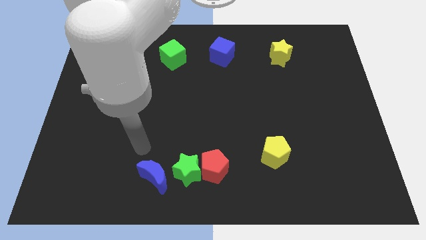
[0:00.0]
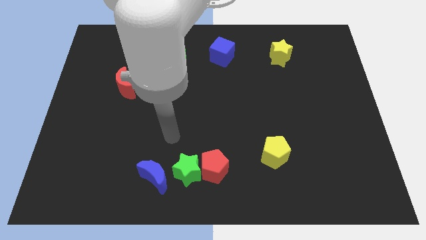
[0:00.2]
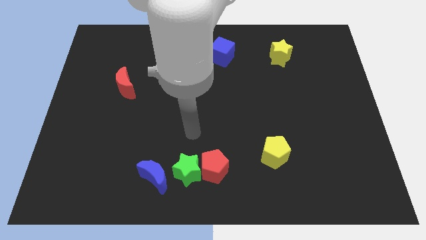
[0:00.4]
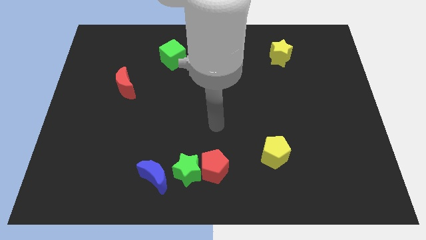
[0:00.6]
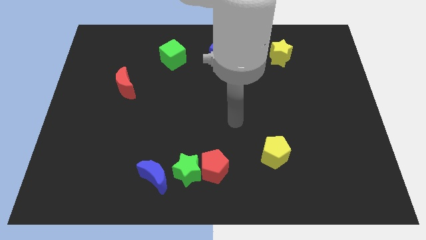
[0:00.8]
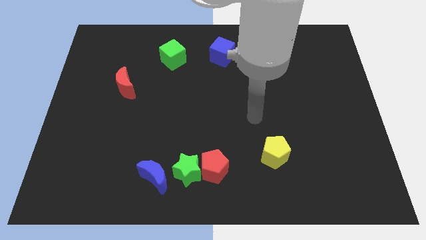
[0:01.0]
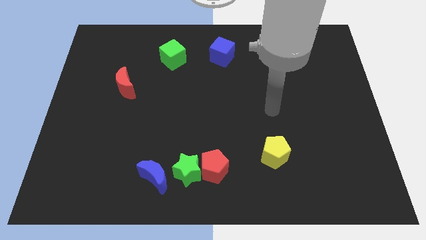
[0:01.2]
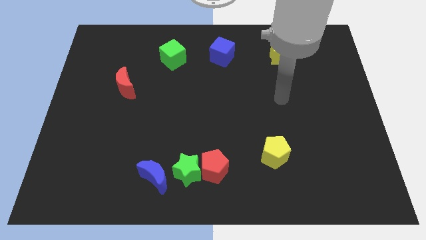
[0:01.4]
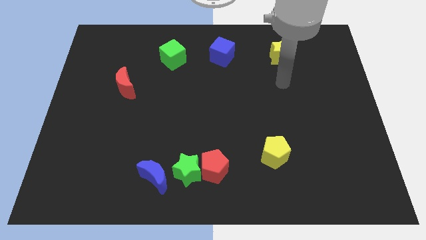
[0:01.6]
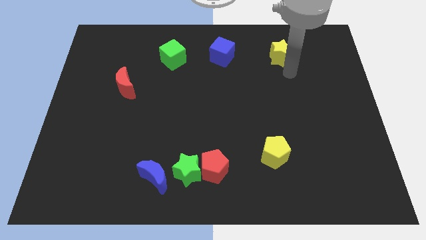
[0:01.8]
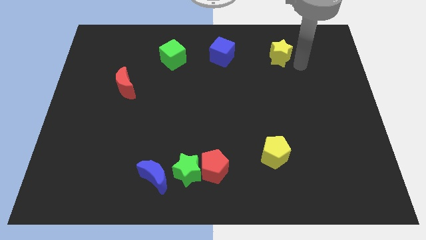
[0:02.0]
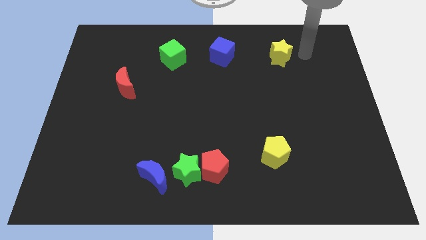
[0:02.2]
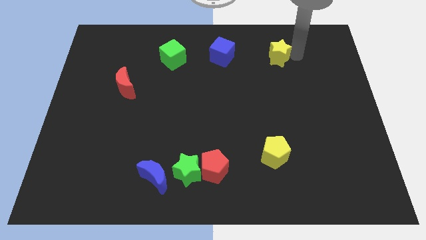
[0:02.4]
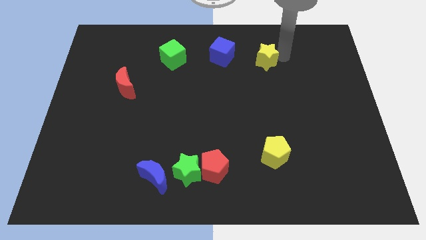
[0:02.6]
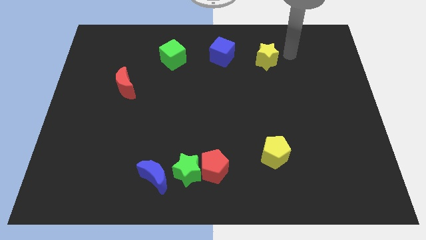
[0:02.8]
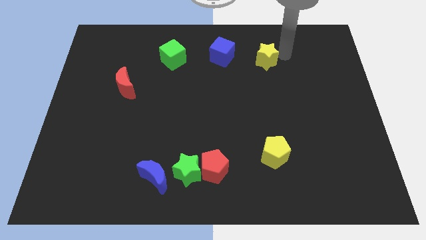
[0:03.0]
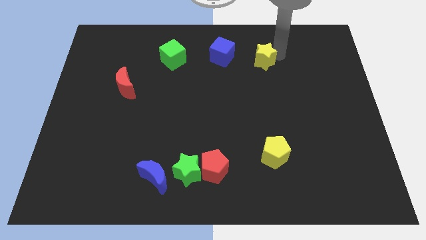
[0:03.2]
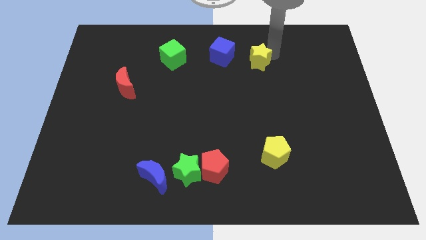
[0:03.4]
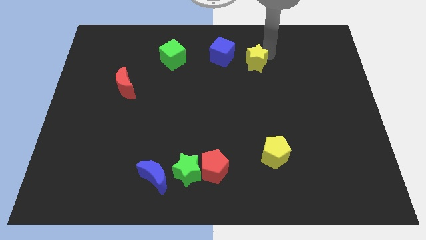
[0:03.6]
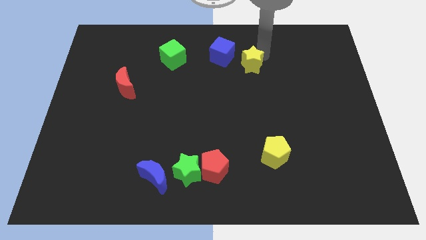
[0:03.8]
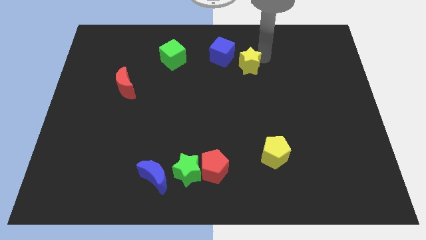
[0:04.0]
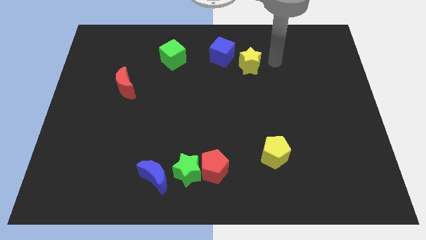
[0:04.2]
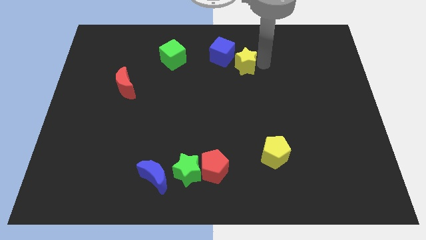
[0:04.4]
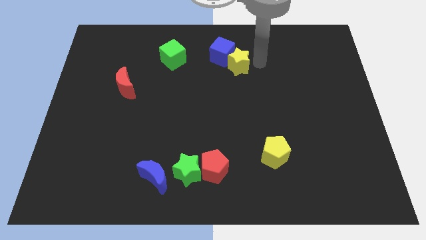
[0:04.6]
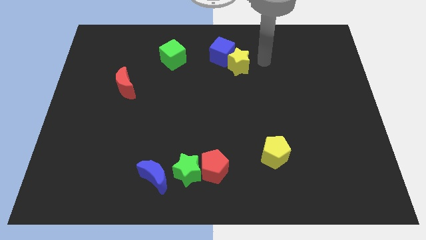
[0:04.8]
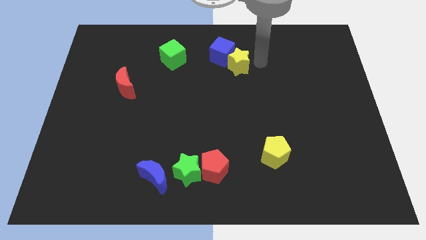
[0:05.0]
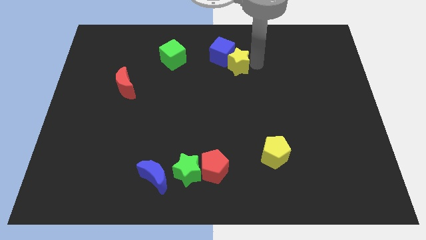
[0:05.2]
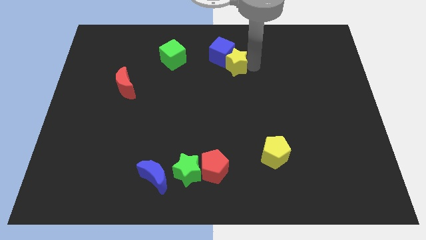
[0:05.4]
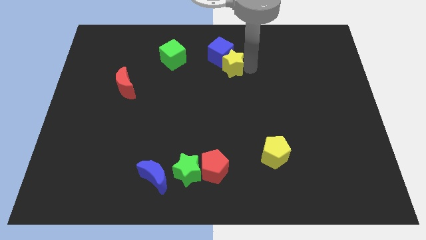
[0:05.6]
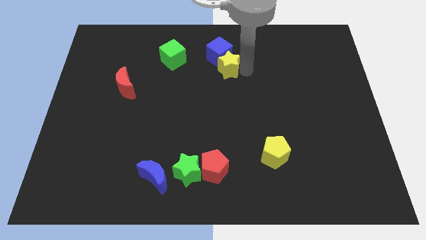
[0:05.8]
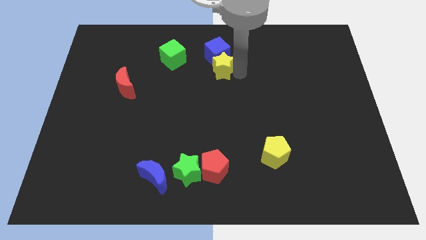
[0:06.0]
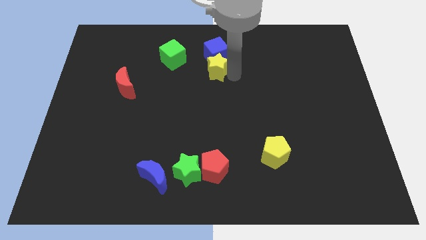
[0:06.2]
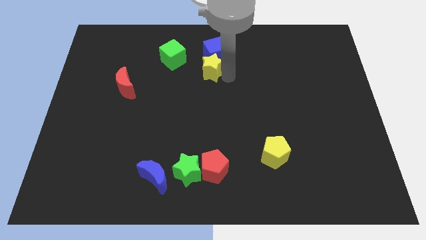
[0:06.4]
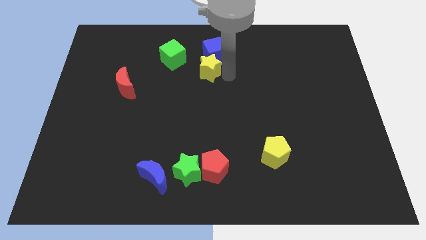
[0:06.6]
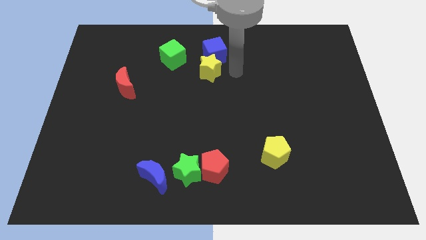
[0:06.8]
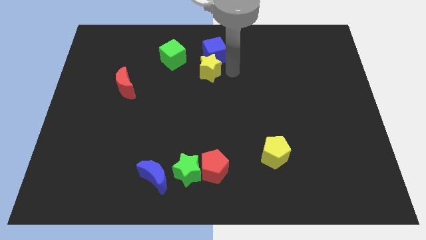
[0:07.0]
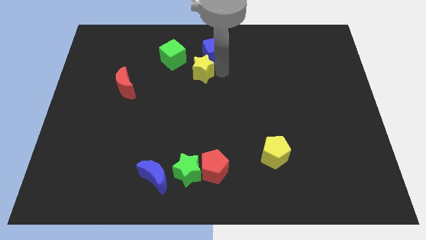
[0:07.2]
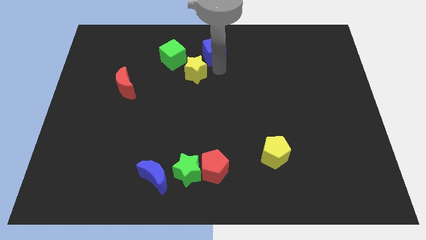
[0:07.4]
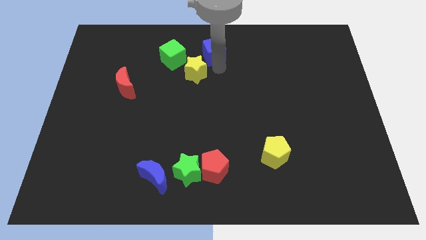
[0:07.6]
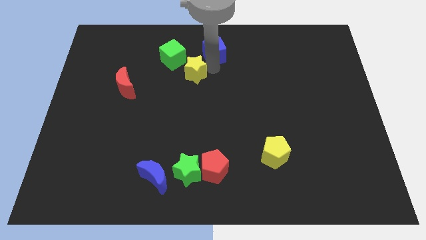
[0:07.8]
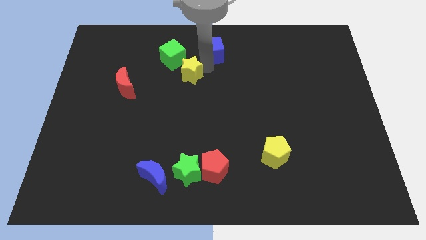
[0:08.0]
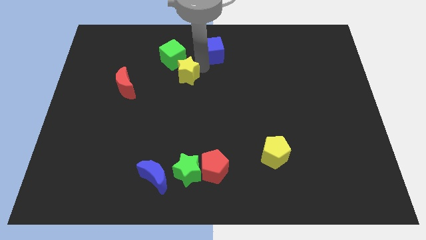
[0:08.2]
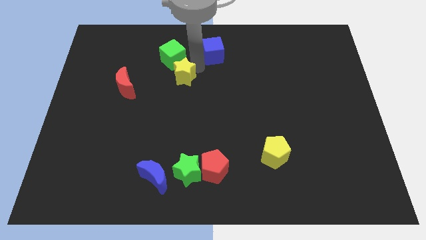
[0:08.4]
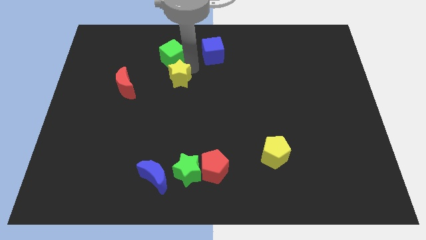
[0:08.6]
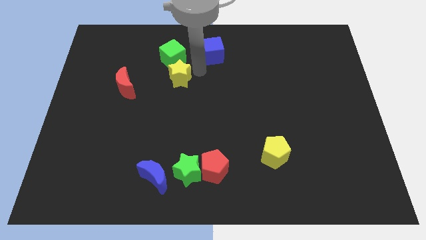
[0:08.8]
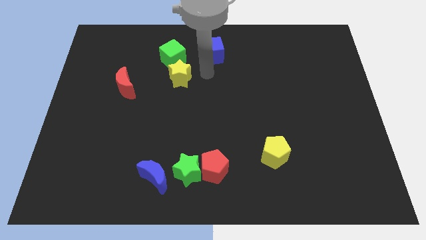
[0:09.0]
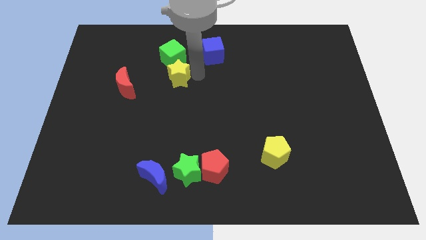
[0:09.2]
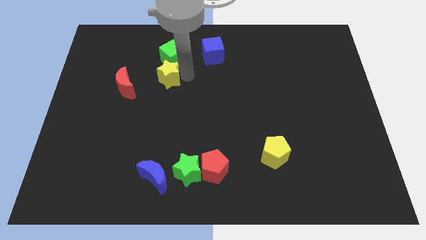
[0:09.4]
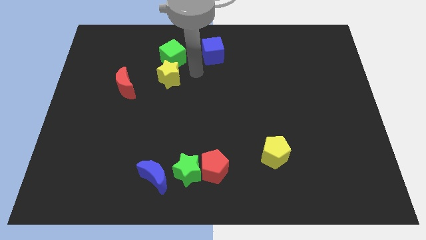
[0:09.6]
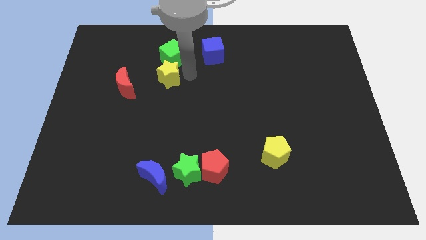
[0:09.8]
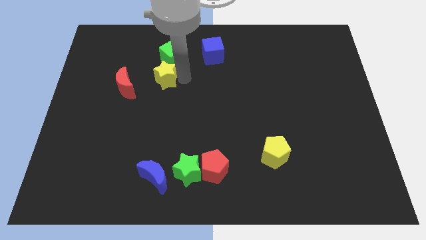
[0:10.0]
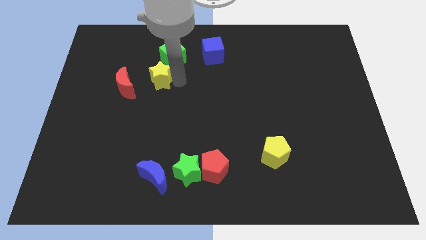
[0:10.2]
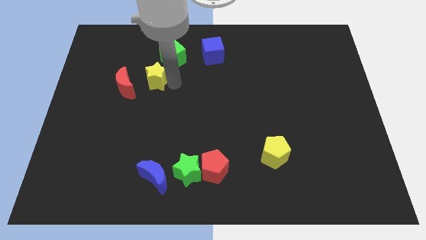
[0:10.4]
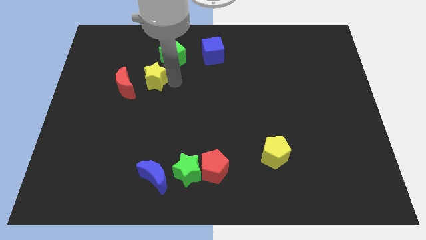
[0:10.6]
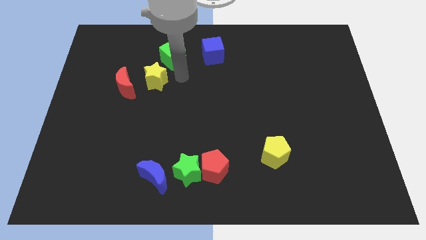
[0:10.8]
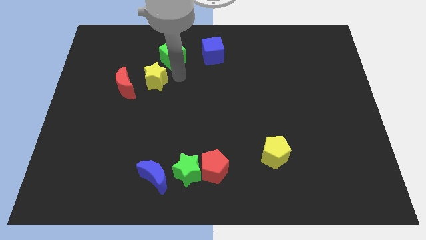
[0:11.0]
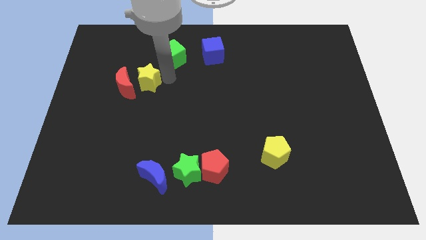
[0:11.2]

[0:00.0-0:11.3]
push the yellow star next to the red moon

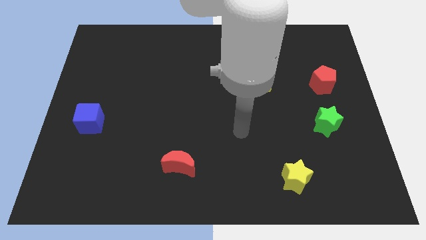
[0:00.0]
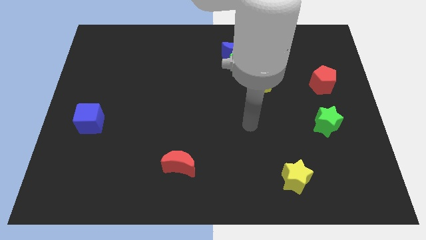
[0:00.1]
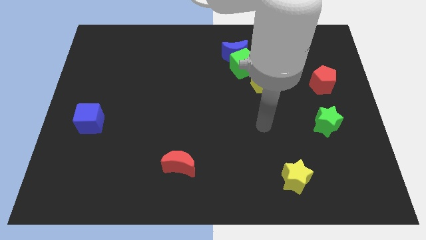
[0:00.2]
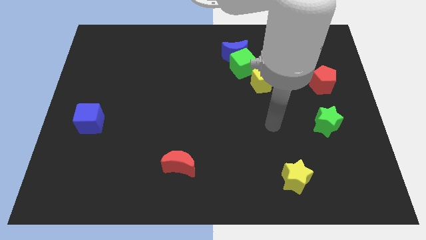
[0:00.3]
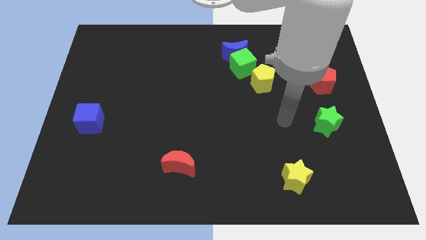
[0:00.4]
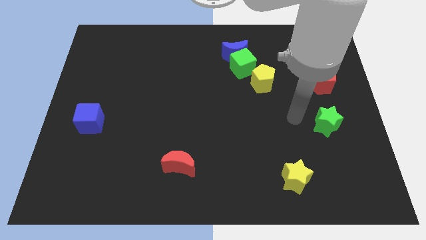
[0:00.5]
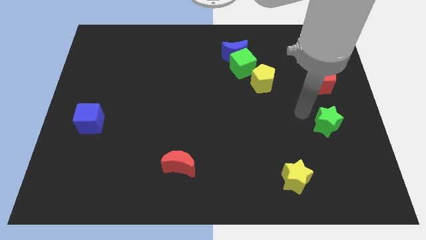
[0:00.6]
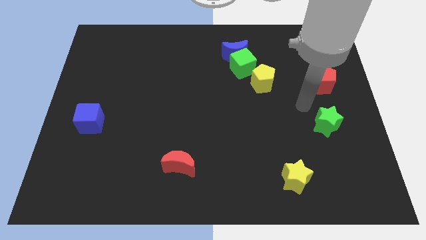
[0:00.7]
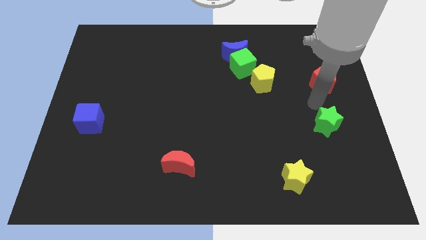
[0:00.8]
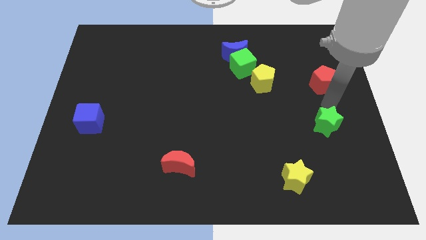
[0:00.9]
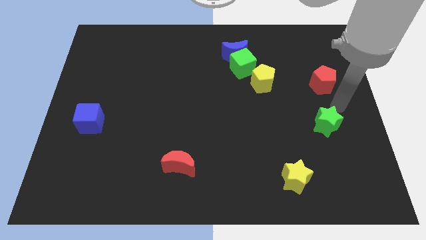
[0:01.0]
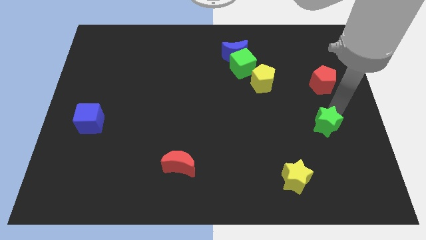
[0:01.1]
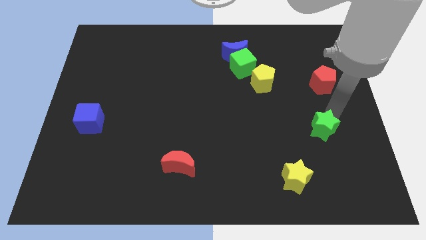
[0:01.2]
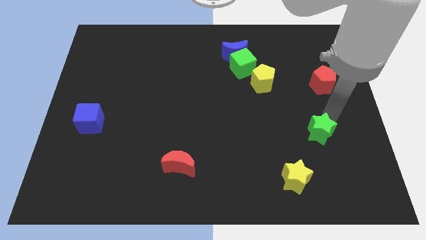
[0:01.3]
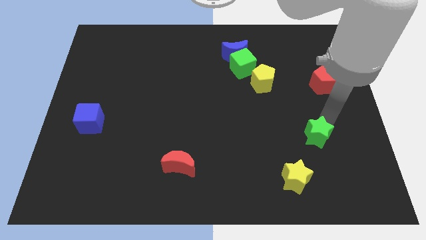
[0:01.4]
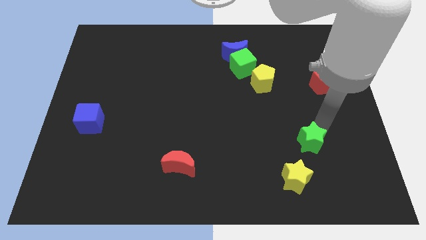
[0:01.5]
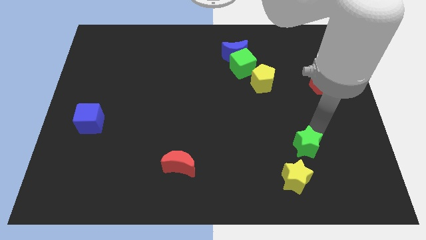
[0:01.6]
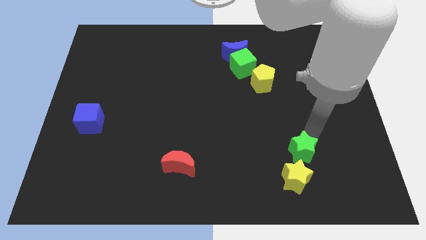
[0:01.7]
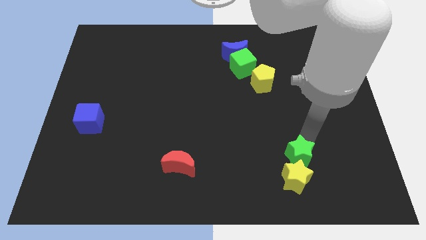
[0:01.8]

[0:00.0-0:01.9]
slide the green star next to the yellow star
